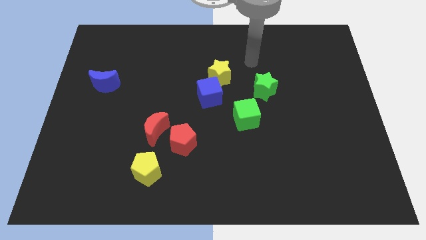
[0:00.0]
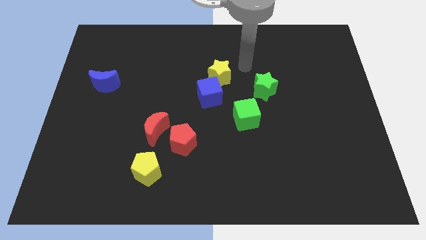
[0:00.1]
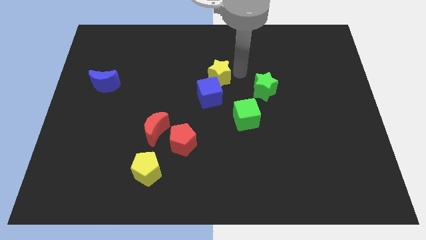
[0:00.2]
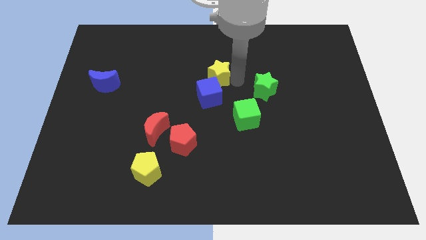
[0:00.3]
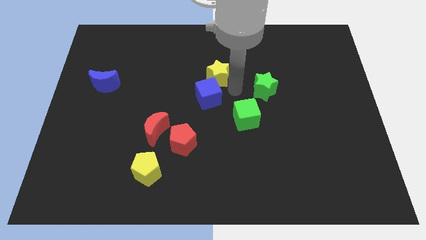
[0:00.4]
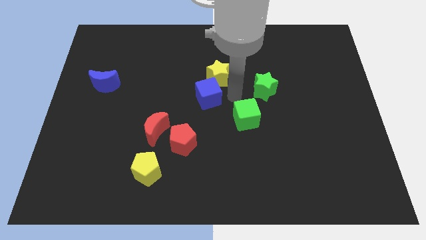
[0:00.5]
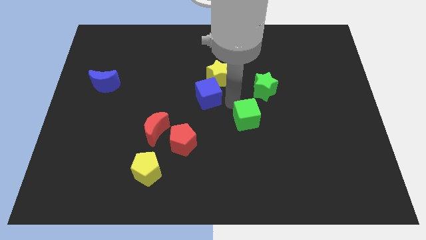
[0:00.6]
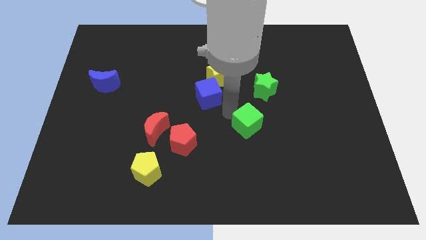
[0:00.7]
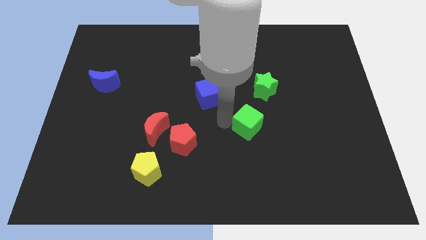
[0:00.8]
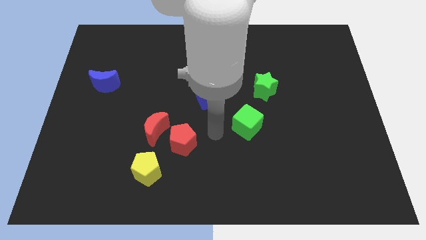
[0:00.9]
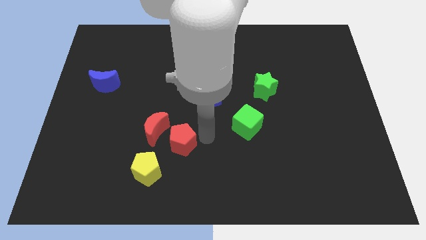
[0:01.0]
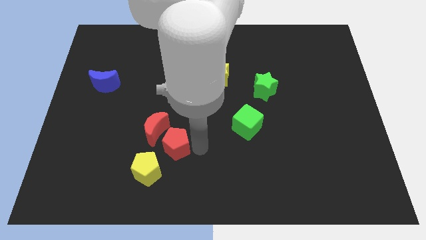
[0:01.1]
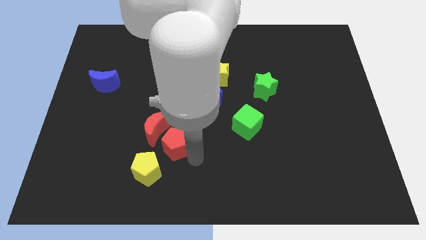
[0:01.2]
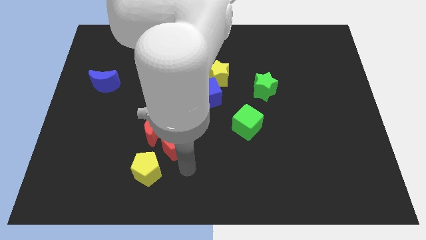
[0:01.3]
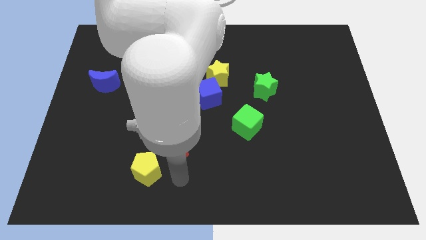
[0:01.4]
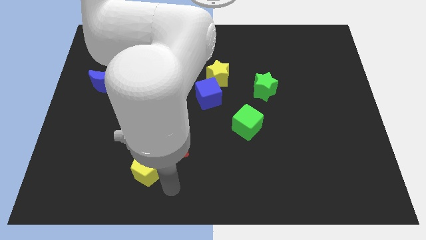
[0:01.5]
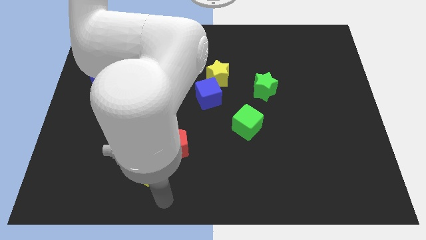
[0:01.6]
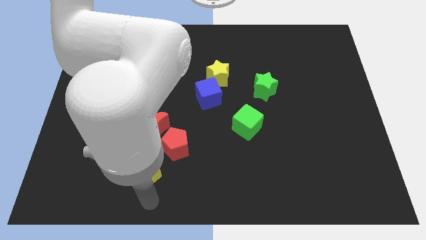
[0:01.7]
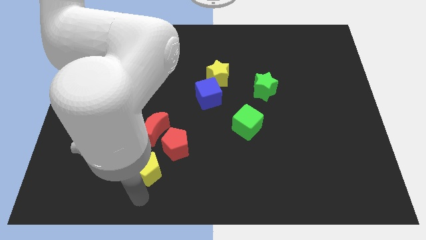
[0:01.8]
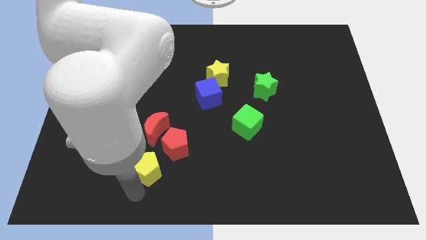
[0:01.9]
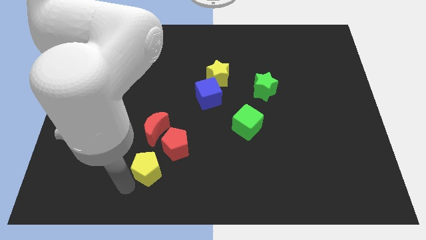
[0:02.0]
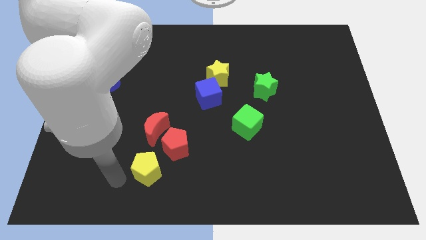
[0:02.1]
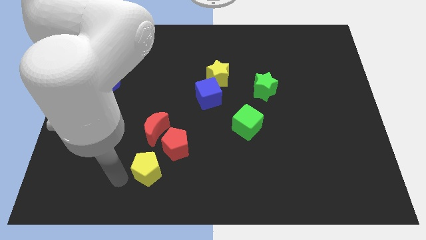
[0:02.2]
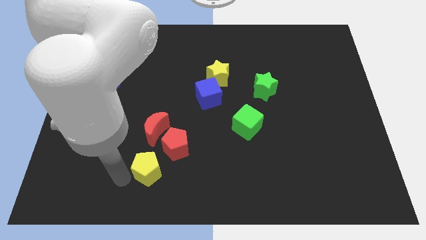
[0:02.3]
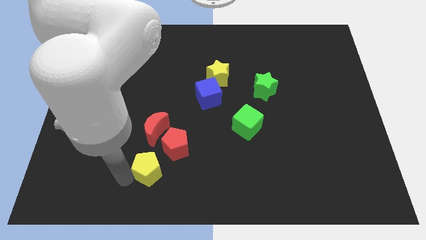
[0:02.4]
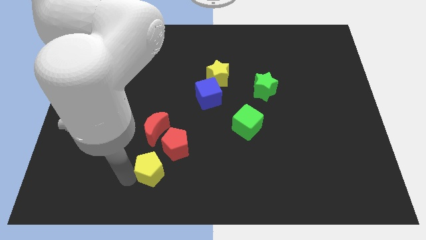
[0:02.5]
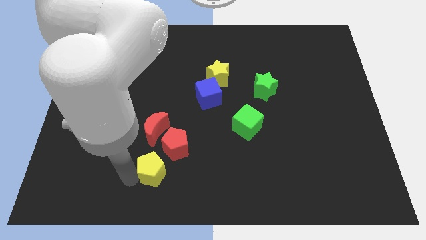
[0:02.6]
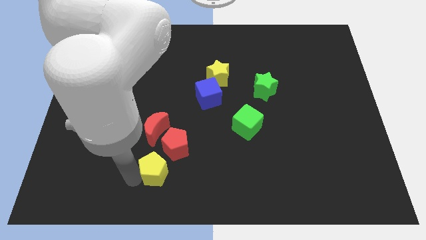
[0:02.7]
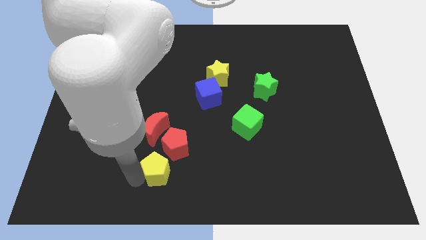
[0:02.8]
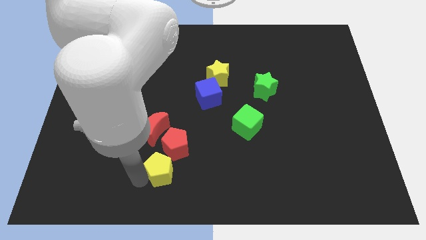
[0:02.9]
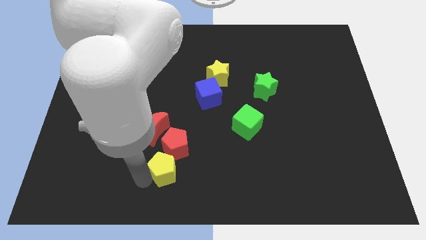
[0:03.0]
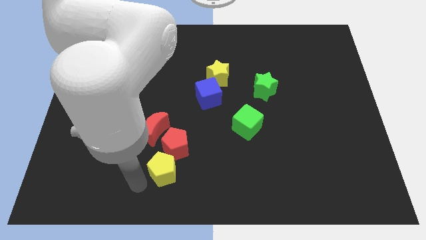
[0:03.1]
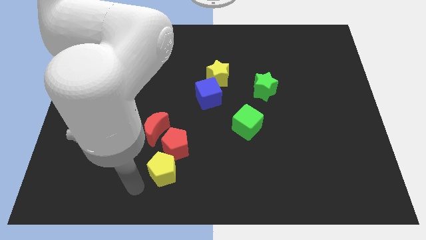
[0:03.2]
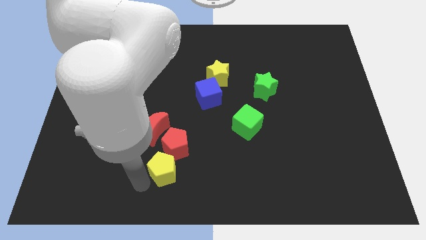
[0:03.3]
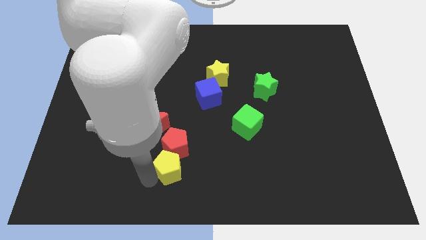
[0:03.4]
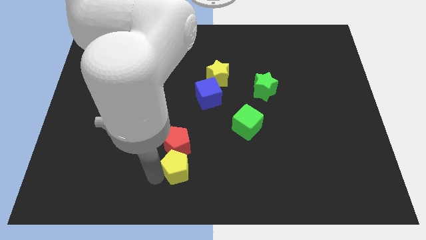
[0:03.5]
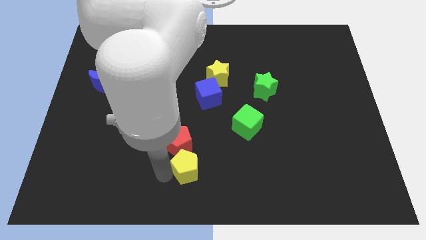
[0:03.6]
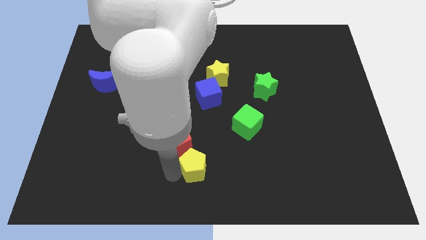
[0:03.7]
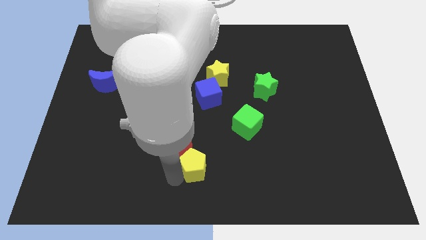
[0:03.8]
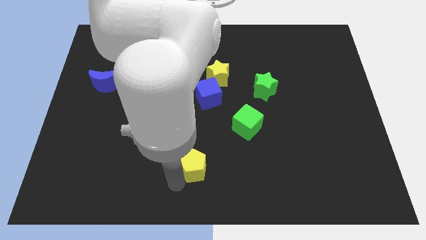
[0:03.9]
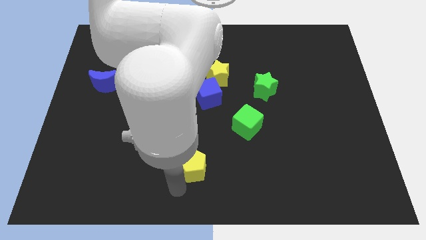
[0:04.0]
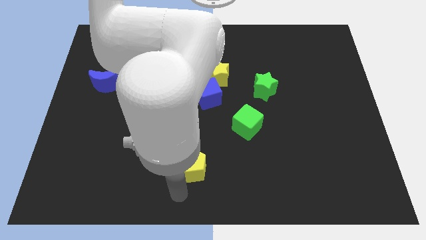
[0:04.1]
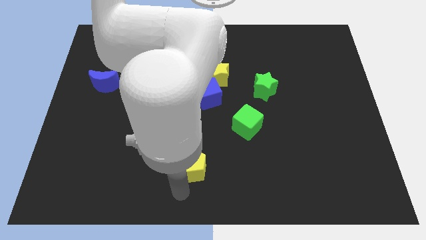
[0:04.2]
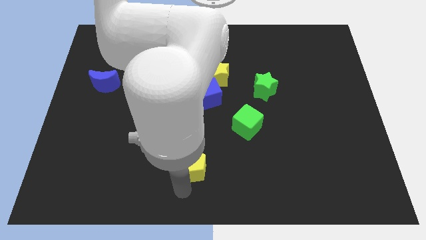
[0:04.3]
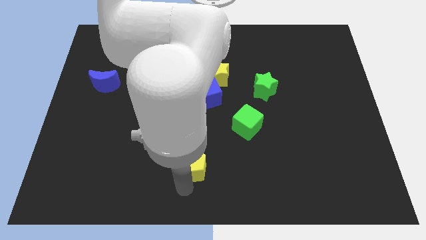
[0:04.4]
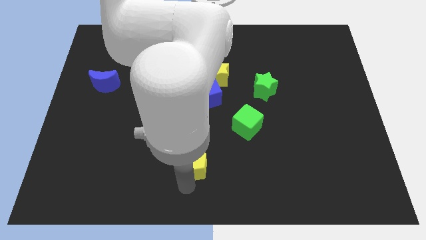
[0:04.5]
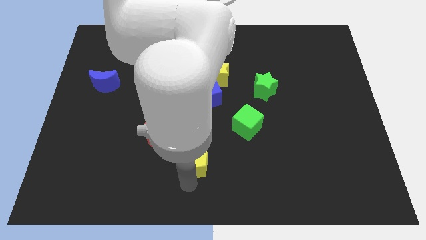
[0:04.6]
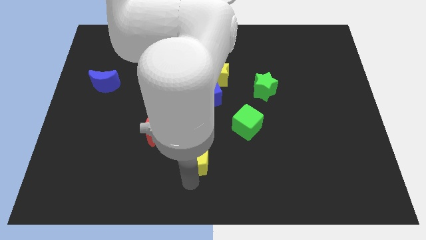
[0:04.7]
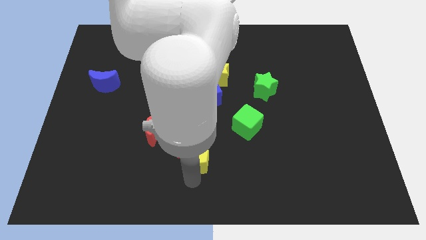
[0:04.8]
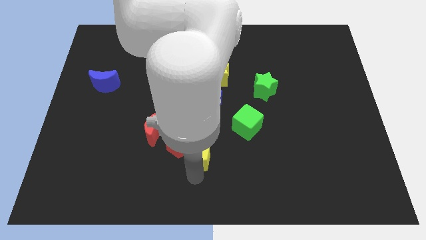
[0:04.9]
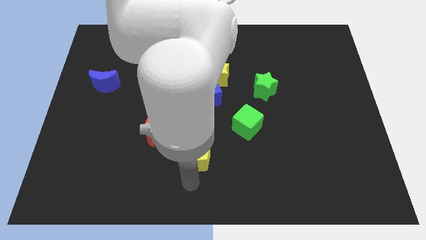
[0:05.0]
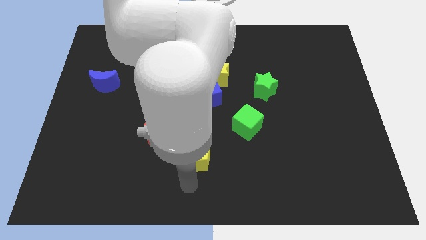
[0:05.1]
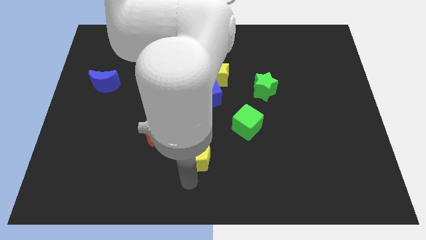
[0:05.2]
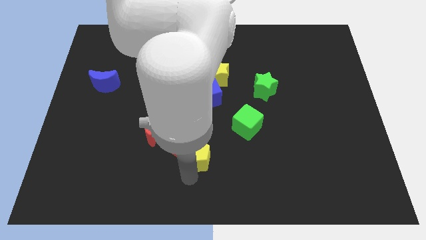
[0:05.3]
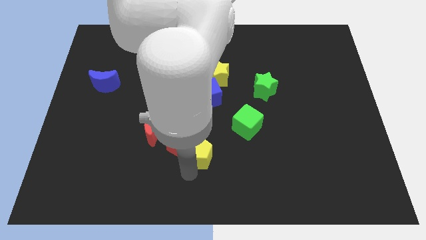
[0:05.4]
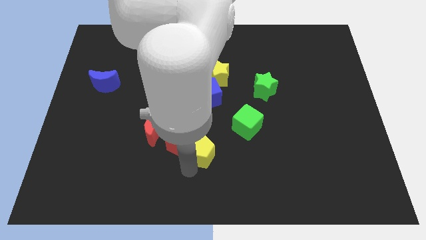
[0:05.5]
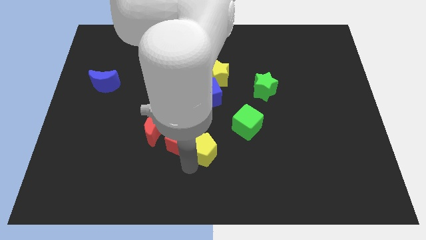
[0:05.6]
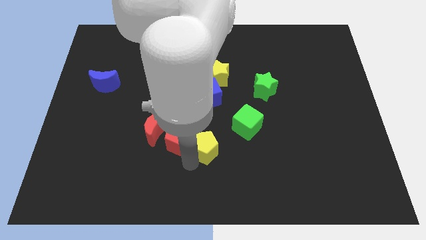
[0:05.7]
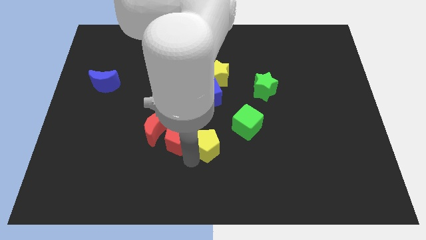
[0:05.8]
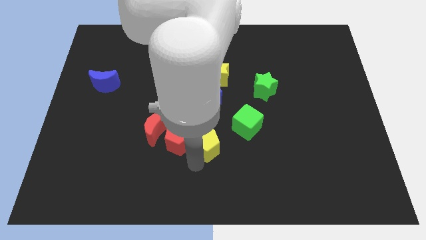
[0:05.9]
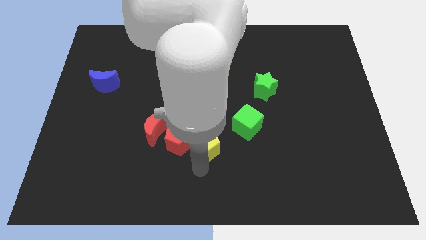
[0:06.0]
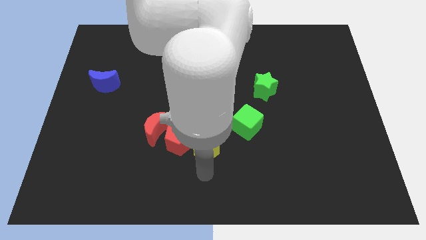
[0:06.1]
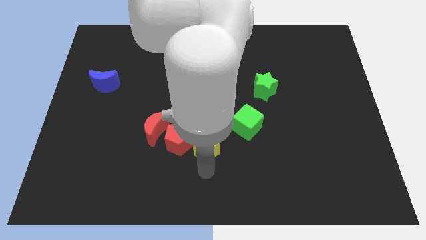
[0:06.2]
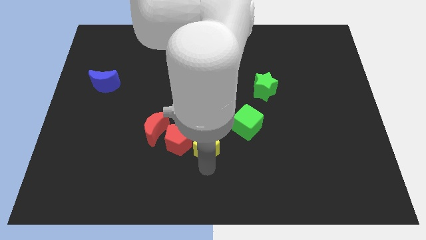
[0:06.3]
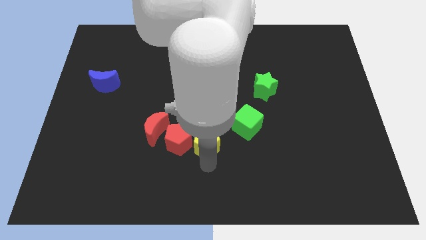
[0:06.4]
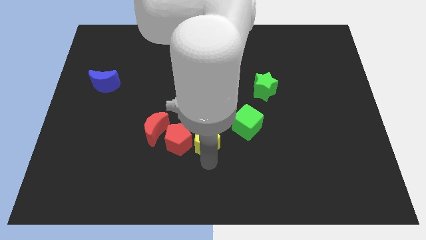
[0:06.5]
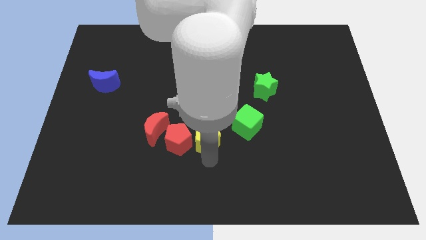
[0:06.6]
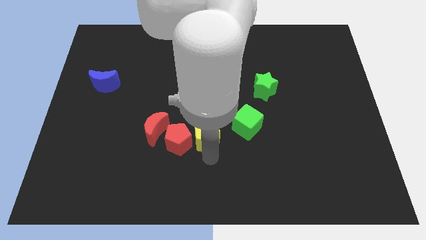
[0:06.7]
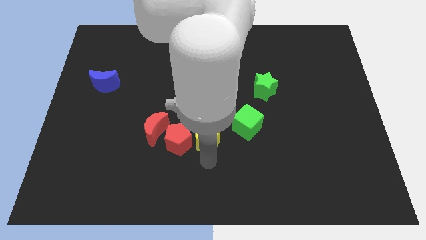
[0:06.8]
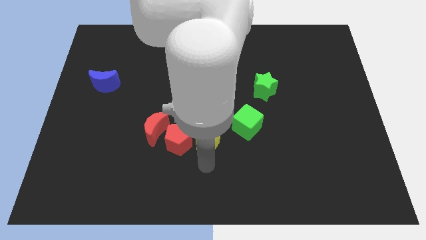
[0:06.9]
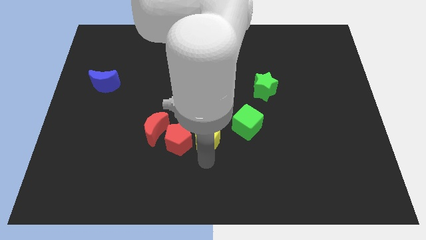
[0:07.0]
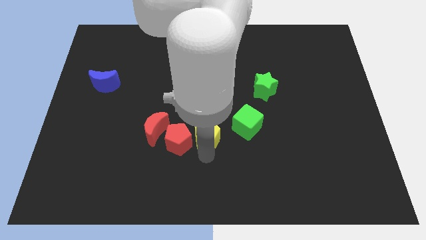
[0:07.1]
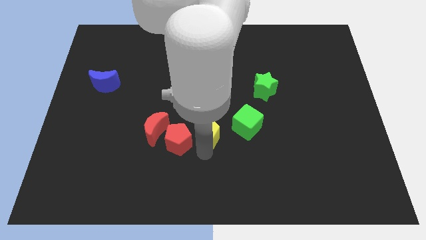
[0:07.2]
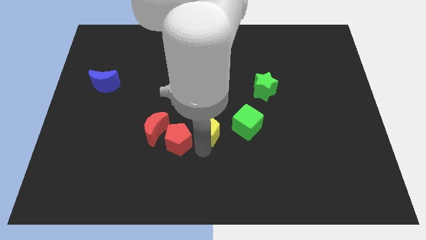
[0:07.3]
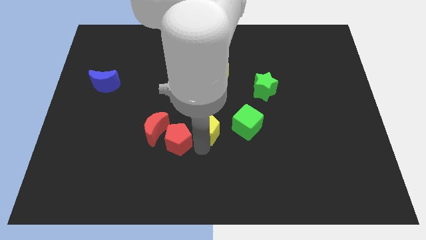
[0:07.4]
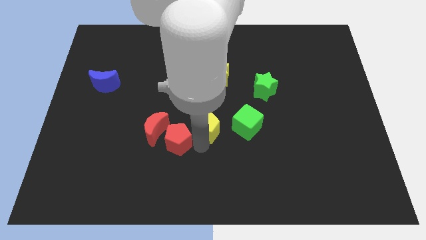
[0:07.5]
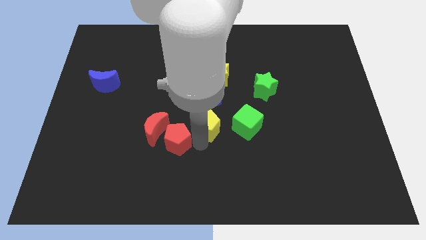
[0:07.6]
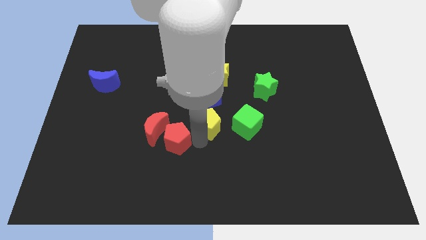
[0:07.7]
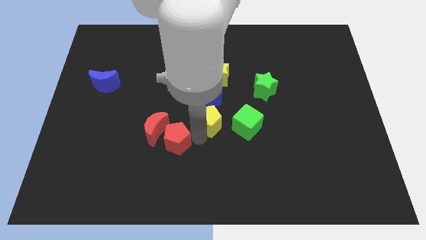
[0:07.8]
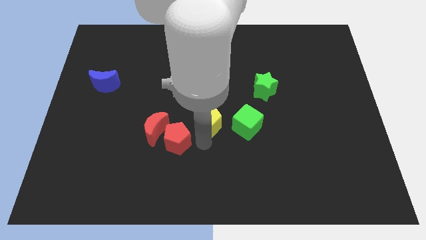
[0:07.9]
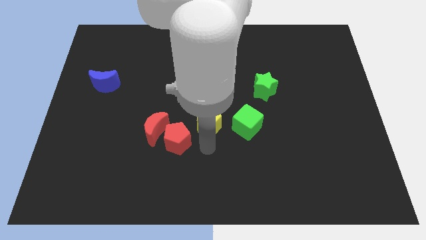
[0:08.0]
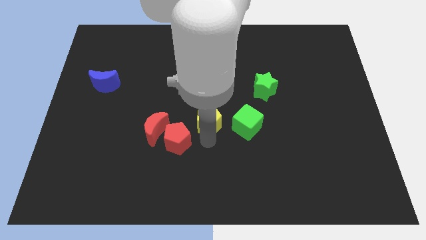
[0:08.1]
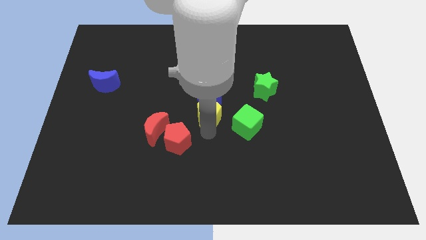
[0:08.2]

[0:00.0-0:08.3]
move the yellow pentagon towards the blue cube
